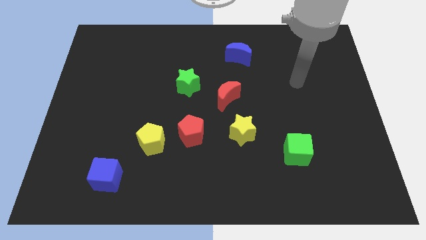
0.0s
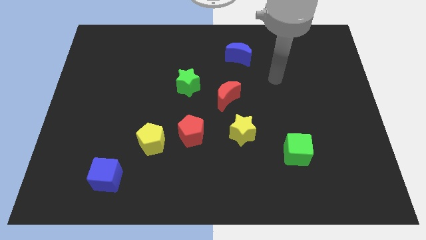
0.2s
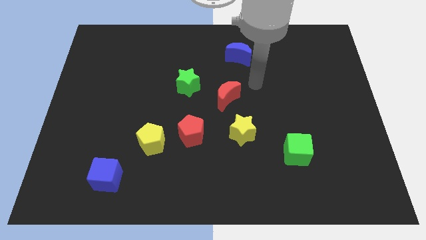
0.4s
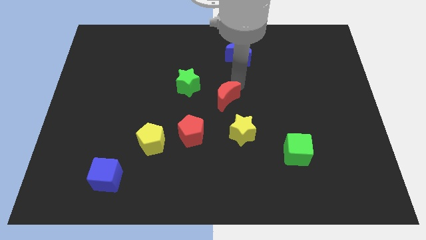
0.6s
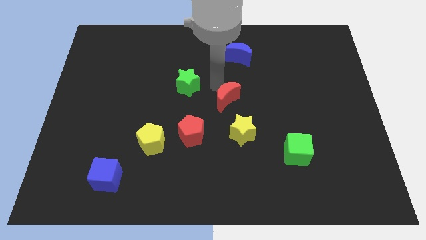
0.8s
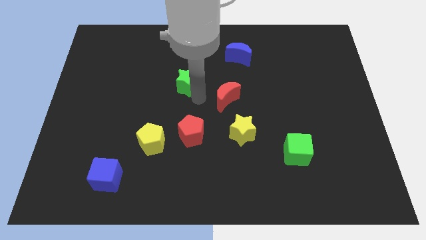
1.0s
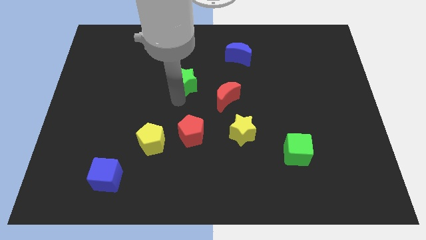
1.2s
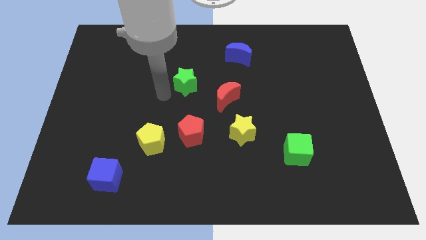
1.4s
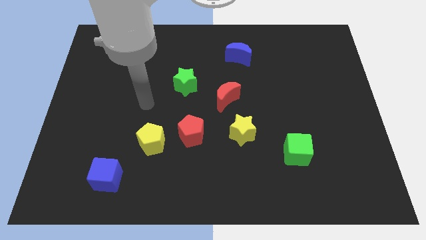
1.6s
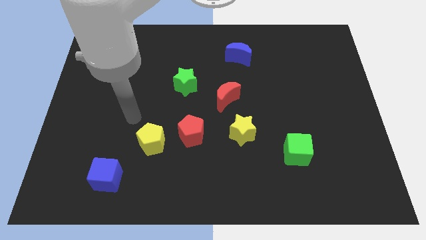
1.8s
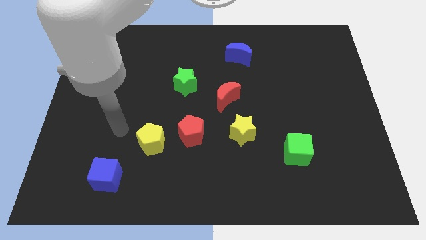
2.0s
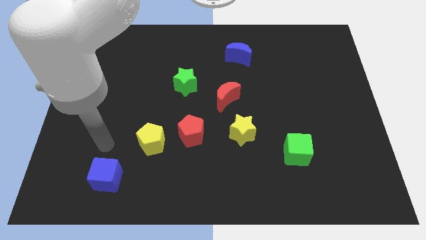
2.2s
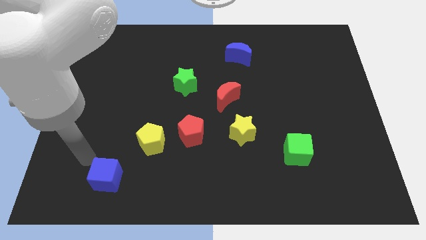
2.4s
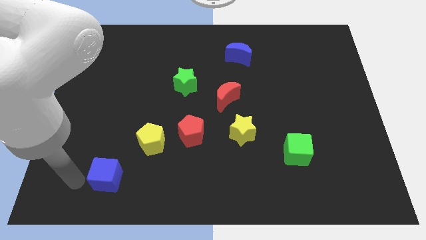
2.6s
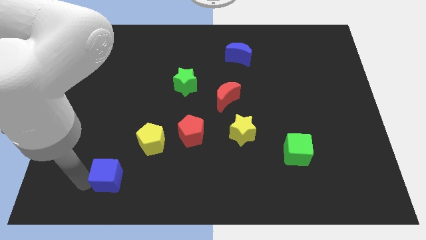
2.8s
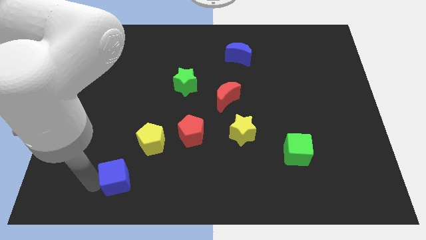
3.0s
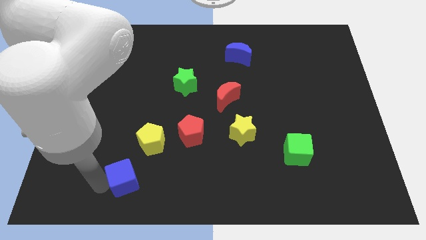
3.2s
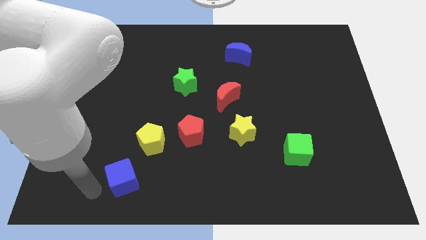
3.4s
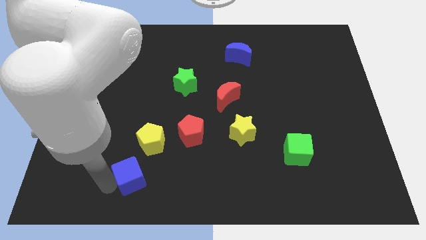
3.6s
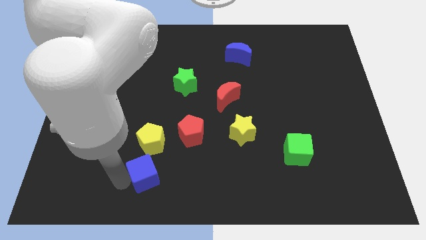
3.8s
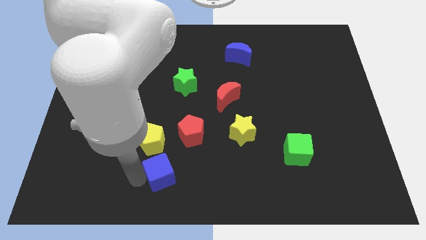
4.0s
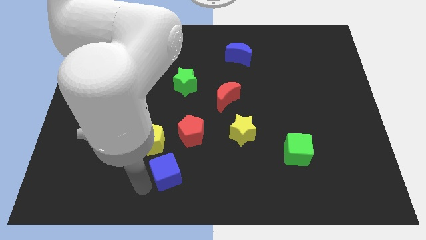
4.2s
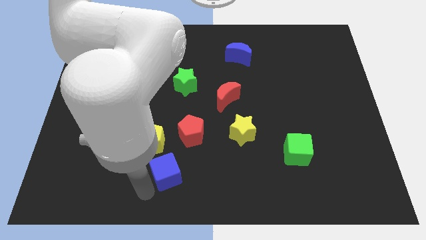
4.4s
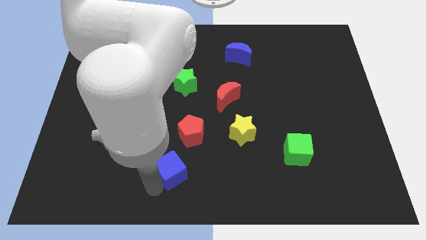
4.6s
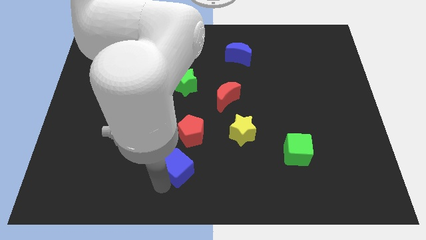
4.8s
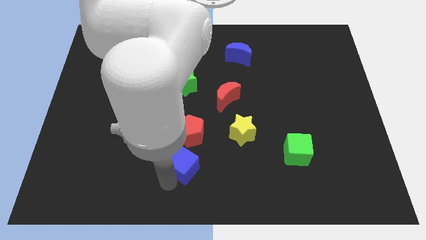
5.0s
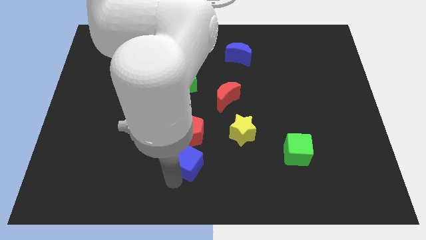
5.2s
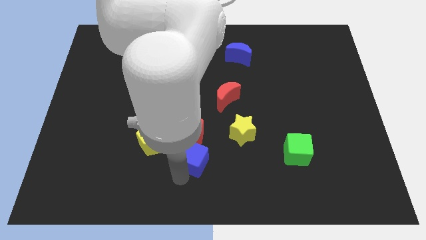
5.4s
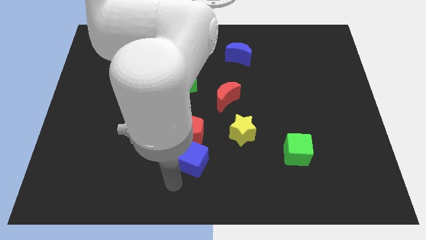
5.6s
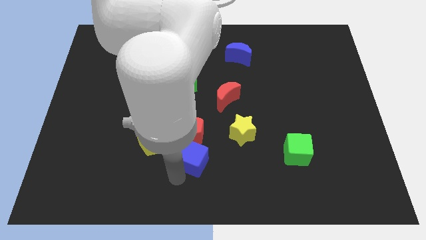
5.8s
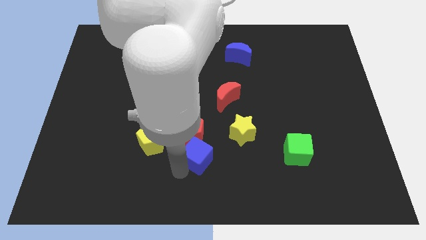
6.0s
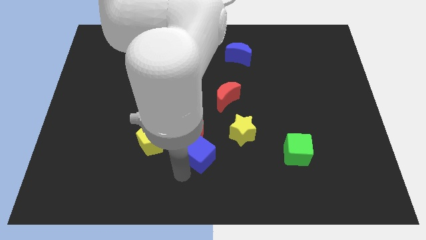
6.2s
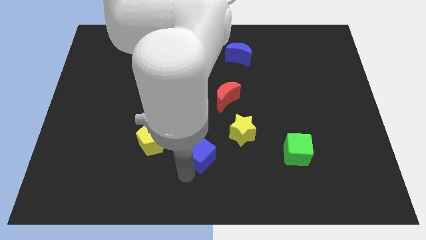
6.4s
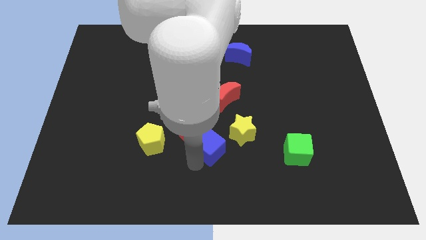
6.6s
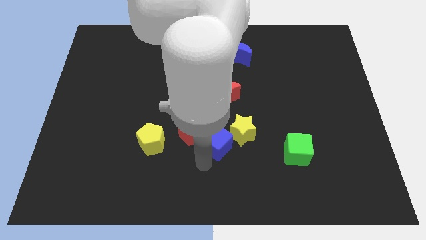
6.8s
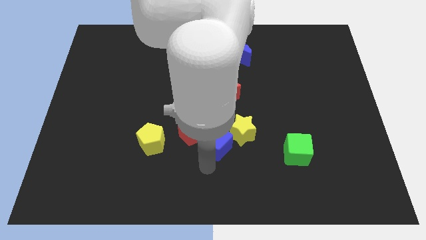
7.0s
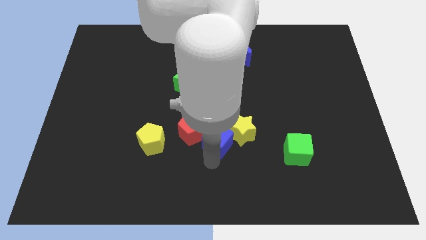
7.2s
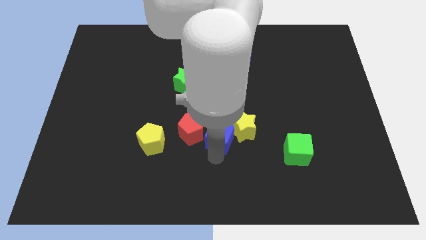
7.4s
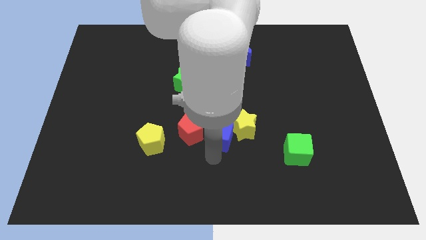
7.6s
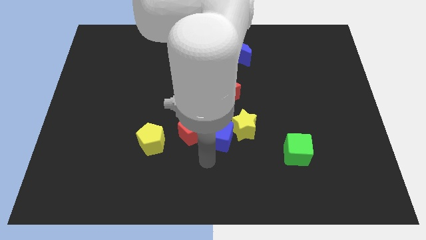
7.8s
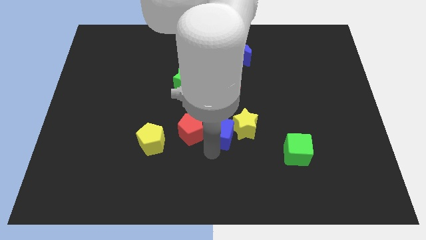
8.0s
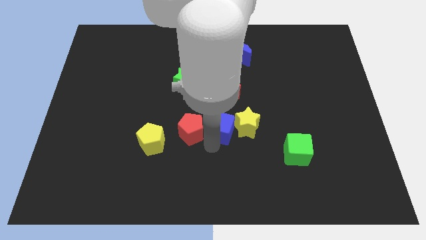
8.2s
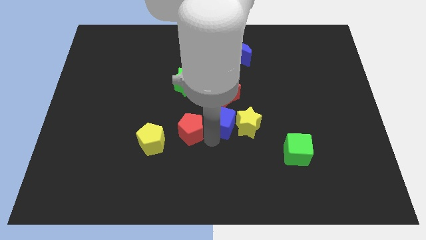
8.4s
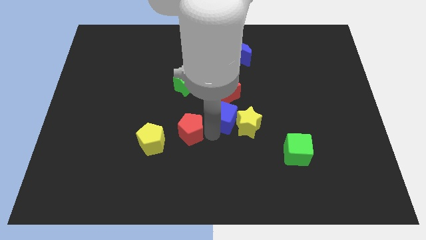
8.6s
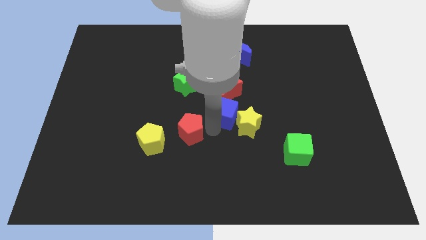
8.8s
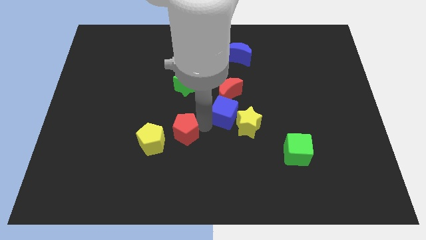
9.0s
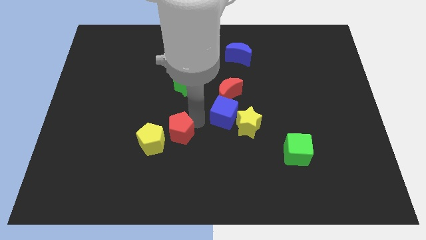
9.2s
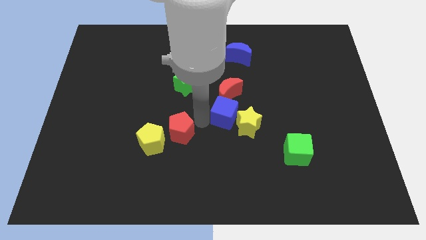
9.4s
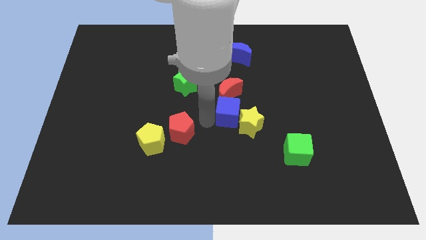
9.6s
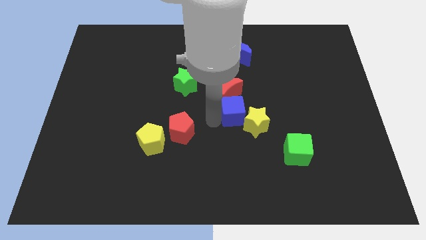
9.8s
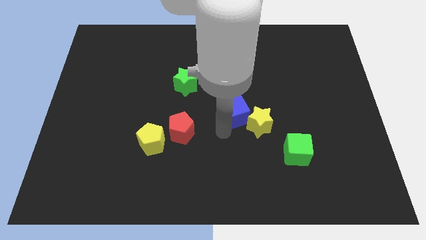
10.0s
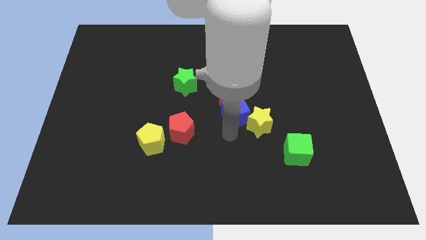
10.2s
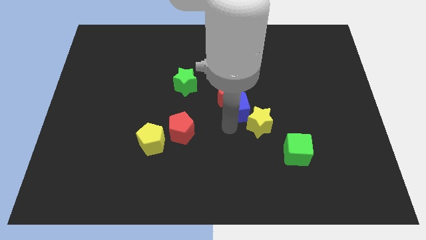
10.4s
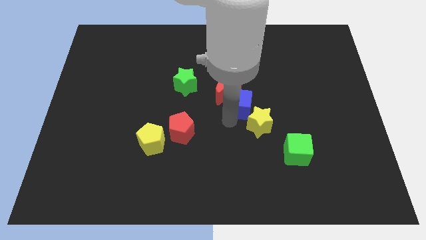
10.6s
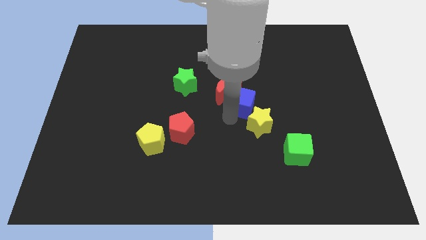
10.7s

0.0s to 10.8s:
move the blue cube to the bottom side of the blue moon

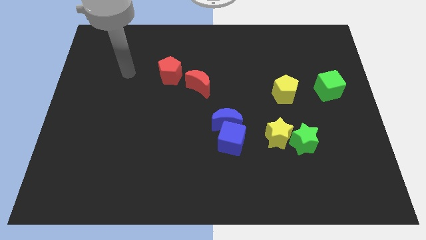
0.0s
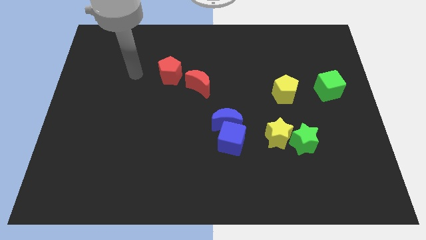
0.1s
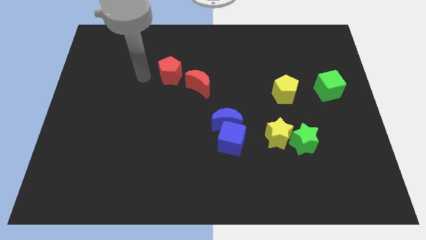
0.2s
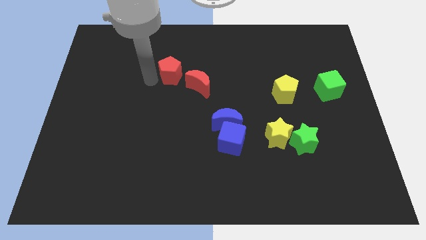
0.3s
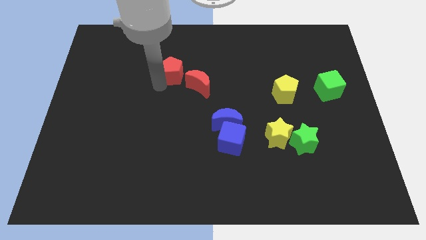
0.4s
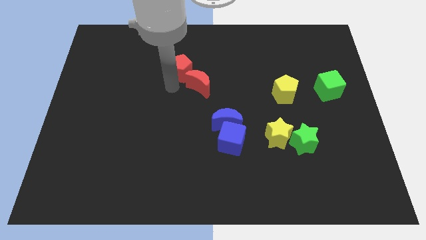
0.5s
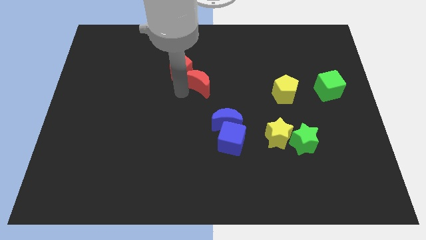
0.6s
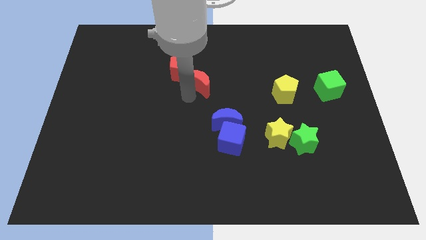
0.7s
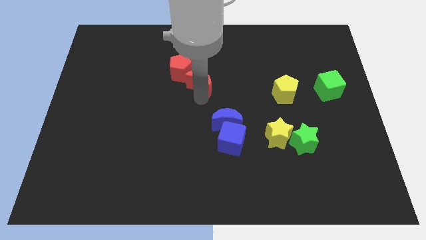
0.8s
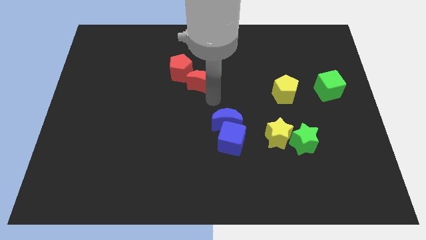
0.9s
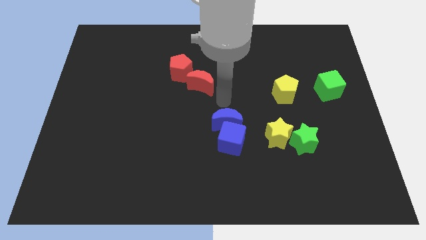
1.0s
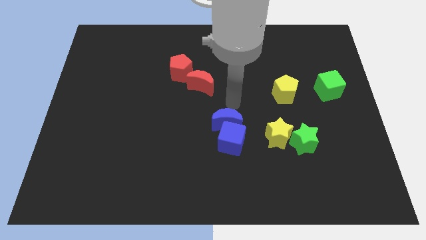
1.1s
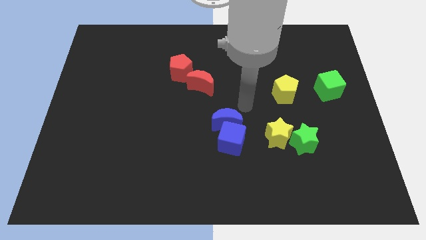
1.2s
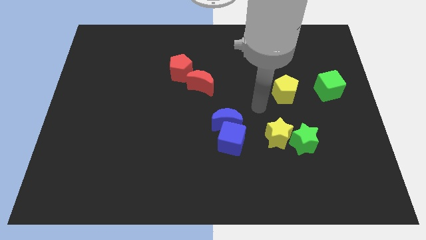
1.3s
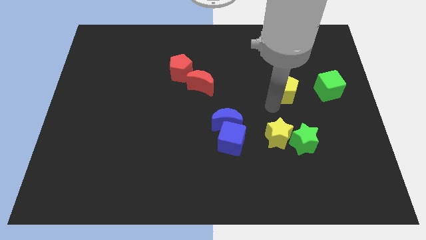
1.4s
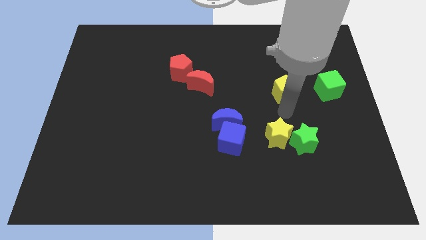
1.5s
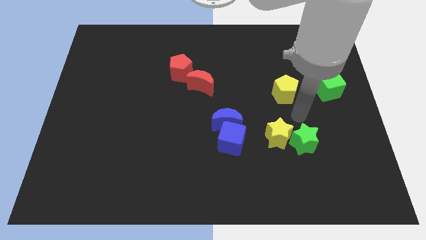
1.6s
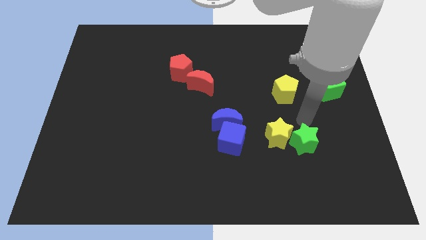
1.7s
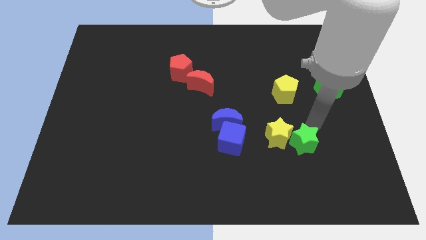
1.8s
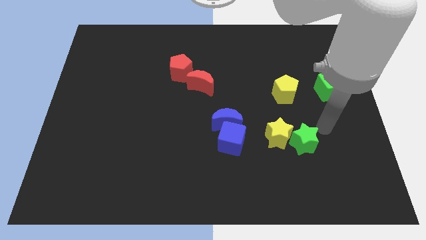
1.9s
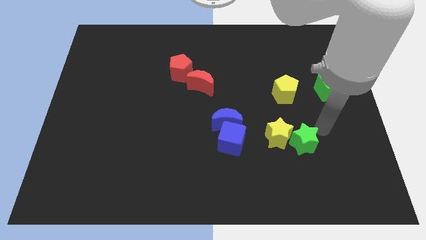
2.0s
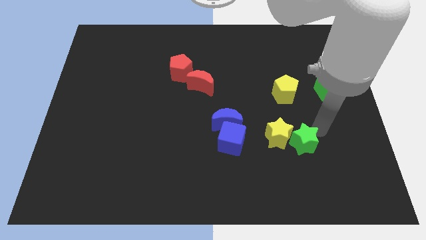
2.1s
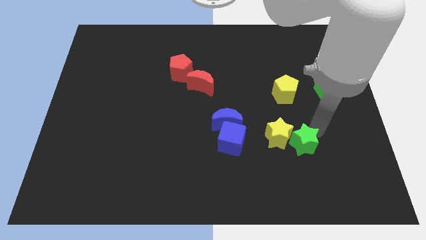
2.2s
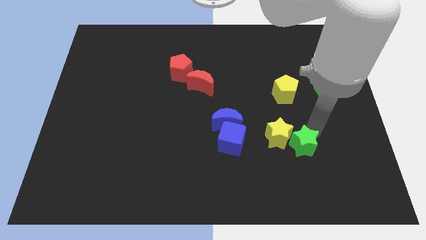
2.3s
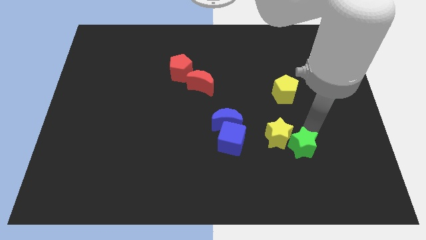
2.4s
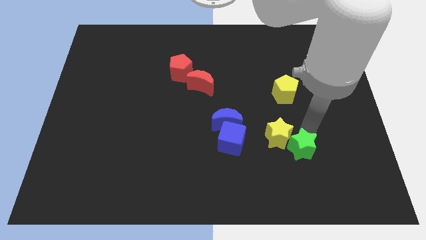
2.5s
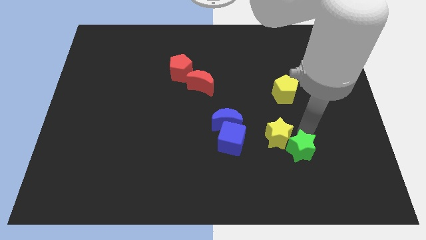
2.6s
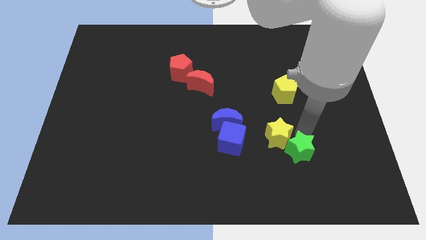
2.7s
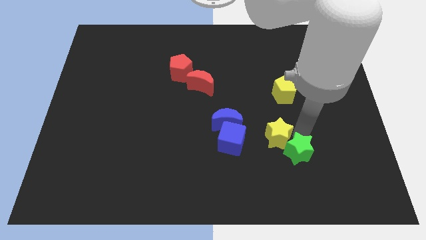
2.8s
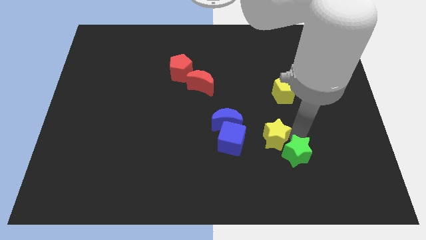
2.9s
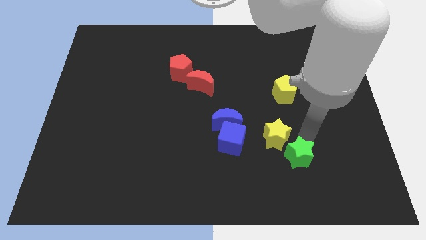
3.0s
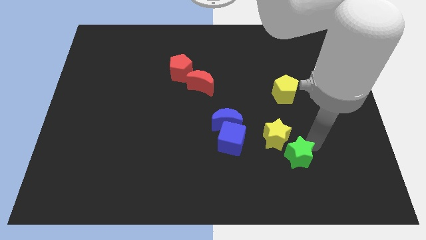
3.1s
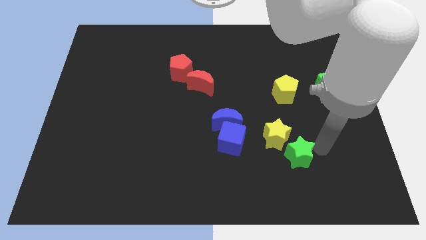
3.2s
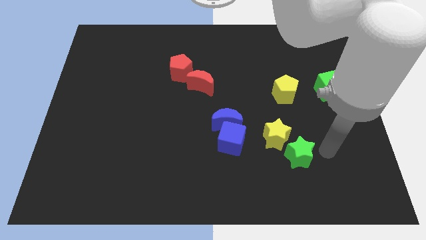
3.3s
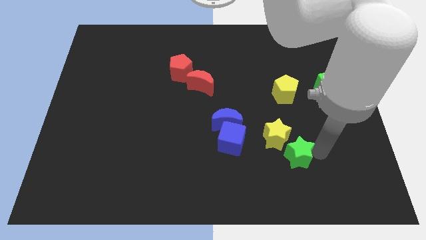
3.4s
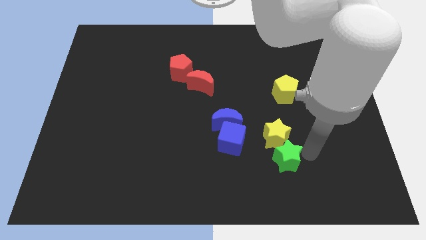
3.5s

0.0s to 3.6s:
slide the green star diagonally down and to the left of the yellow star
